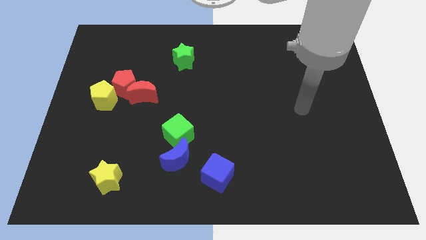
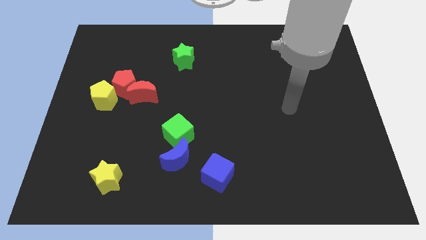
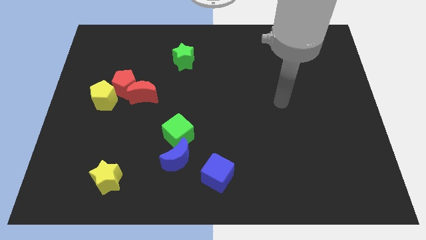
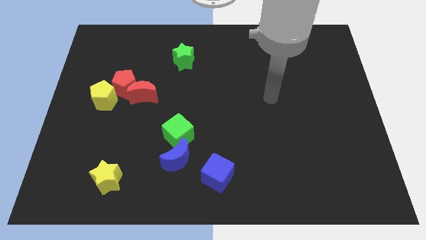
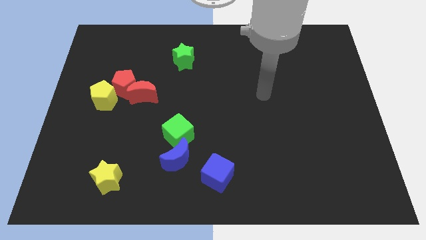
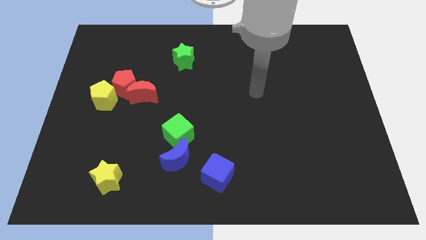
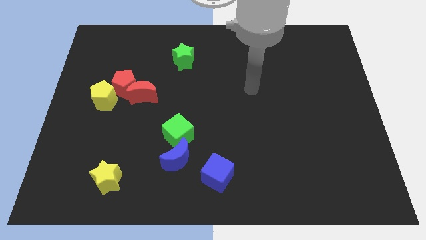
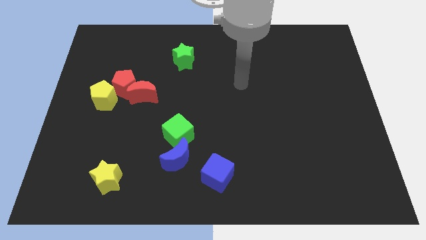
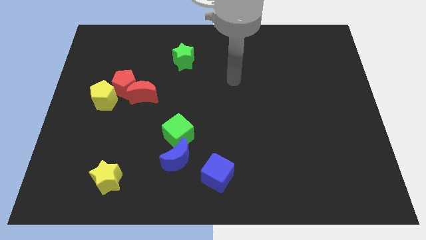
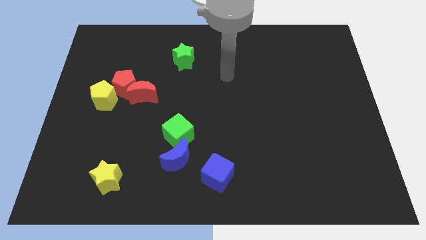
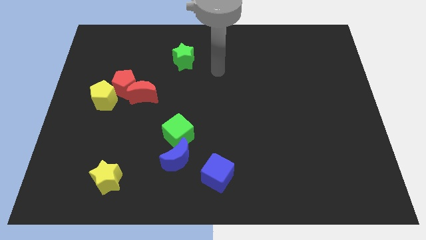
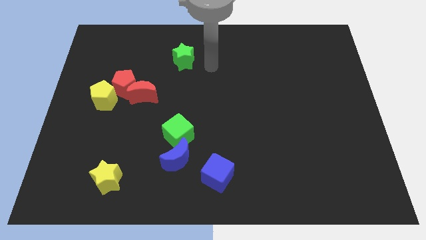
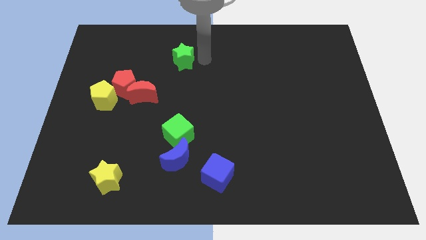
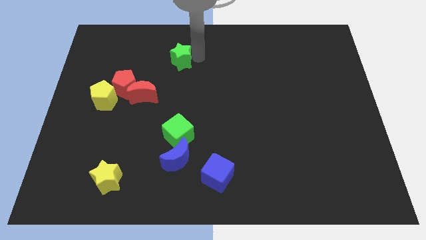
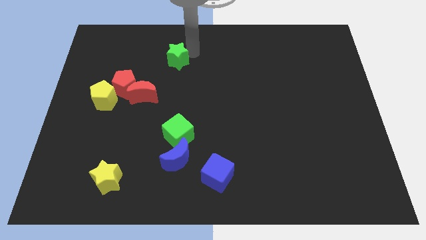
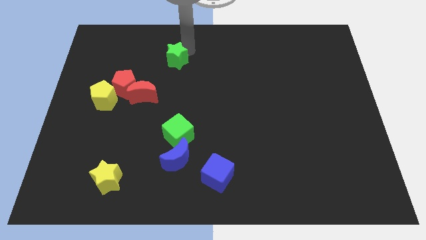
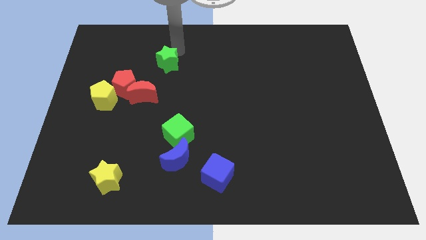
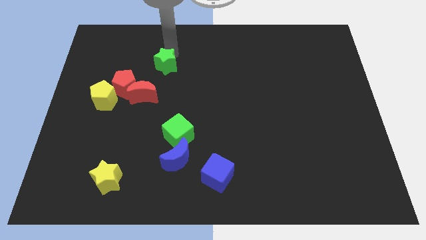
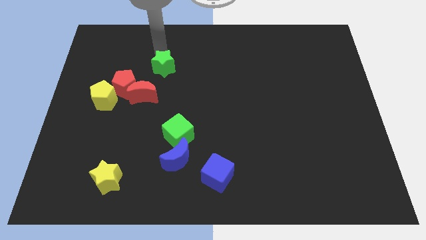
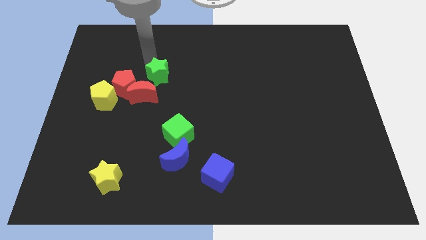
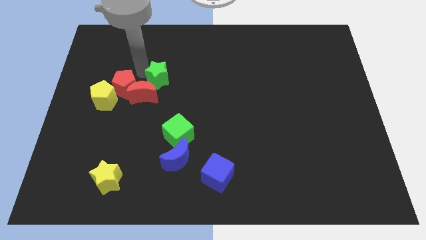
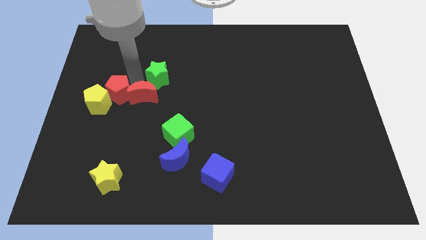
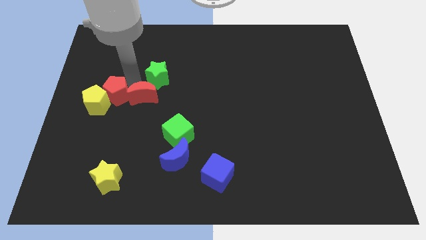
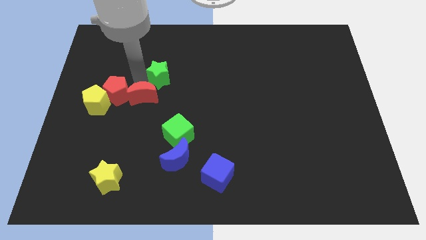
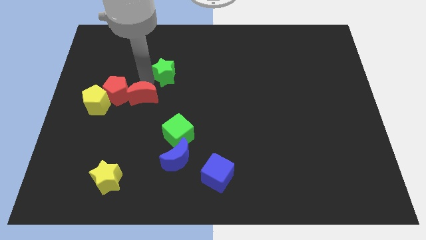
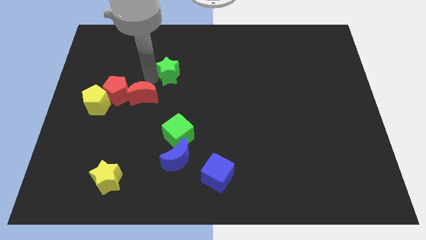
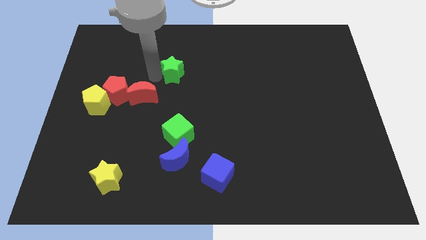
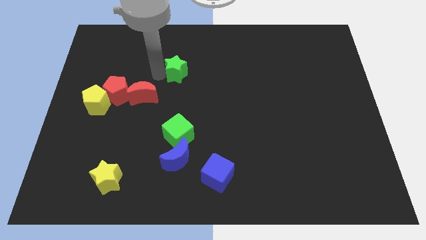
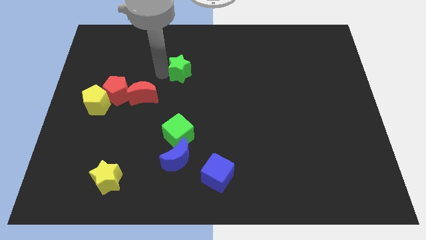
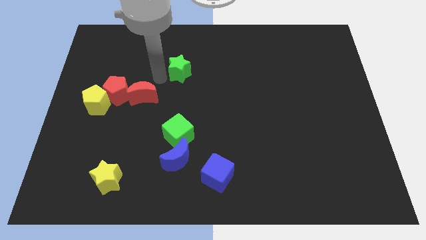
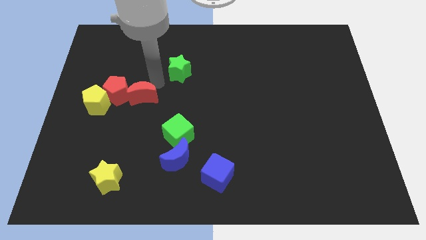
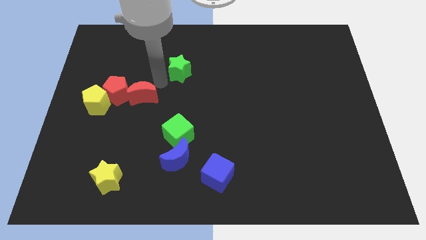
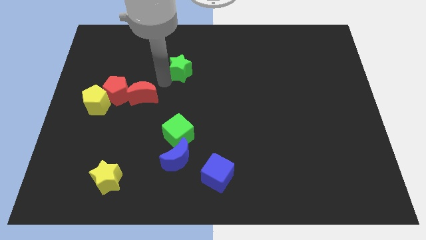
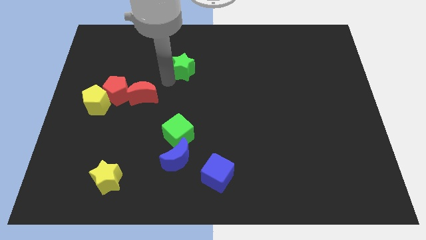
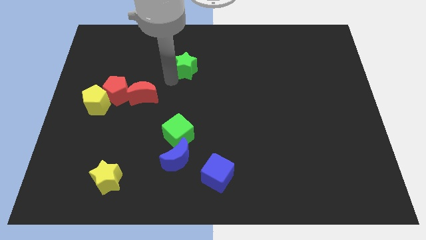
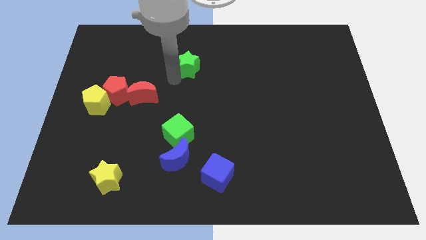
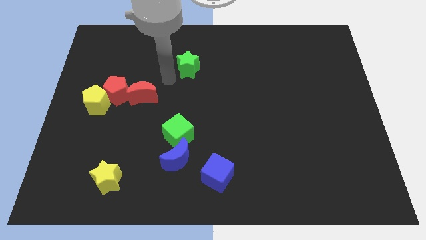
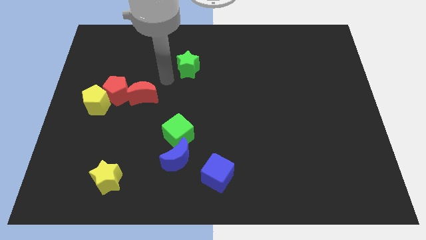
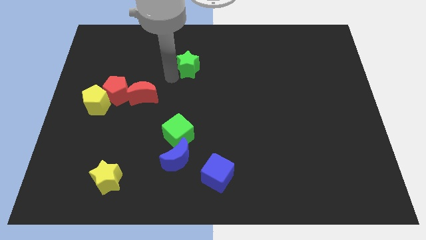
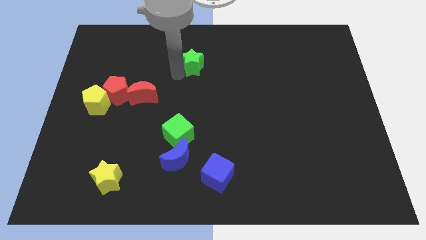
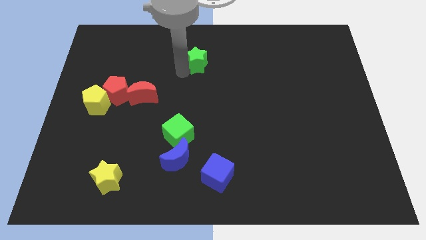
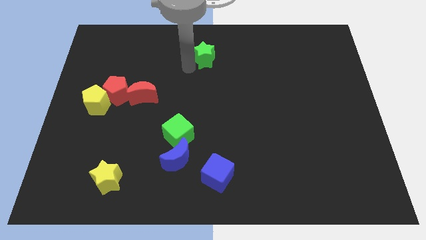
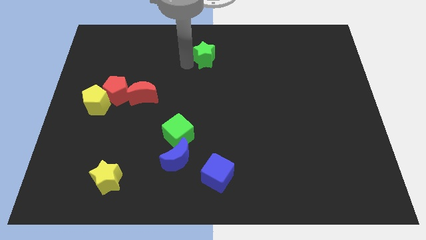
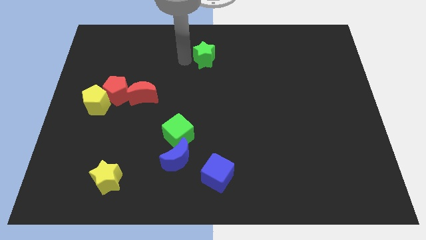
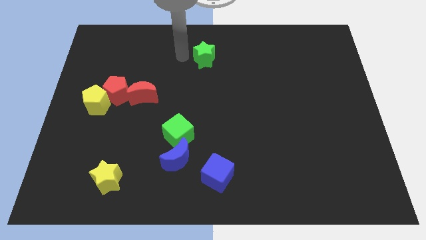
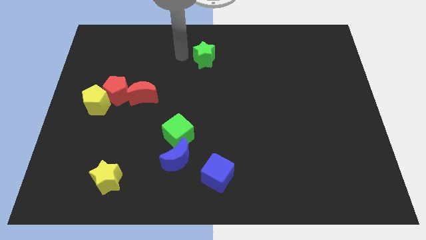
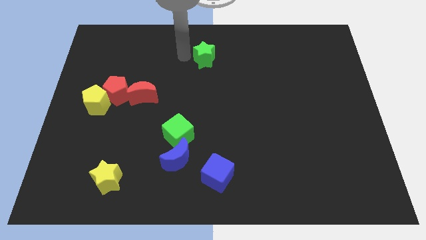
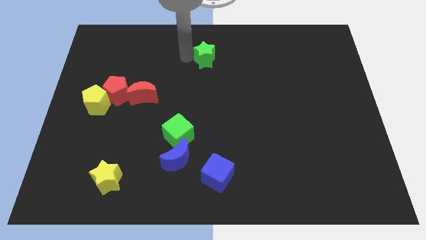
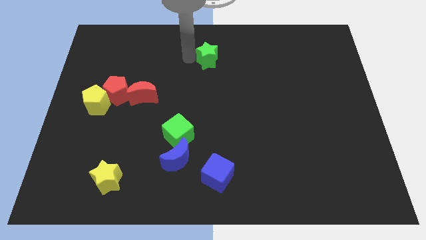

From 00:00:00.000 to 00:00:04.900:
slightly slide the green star to the right

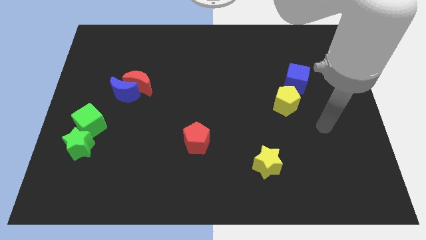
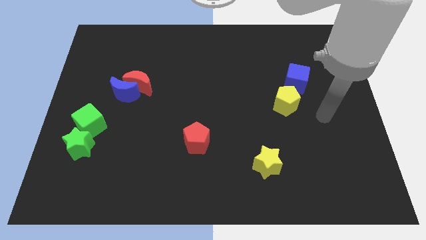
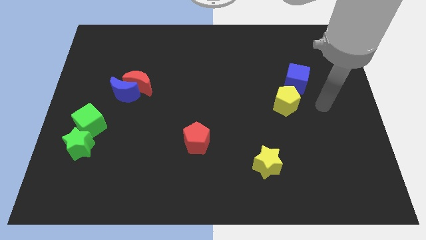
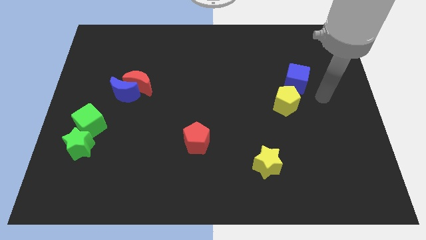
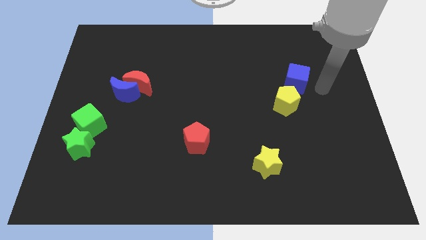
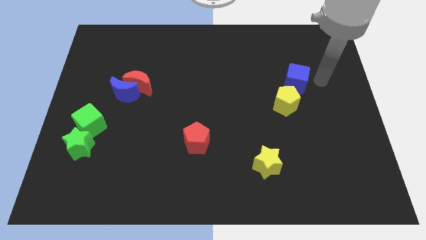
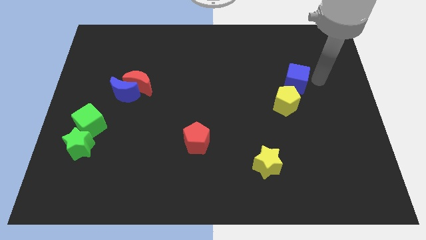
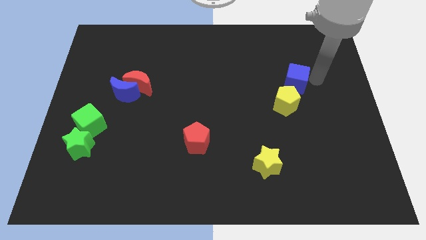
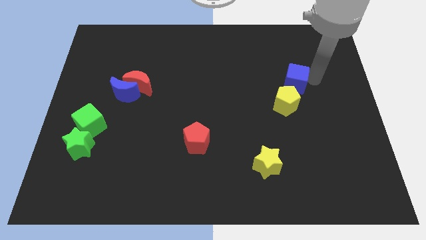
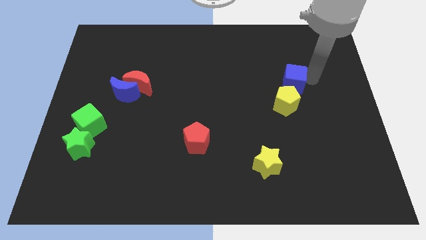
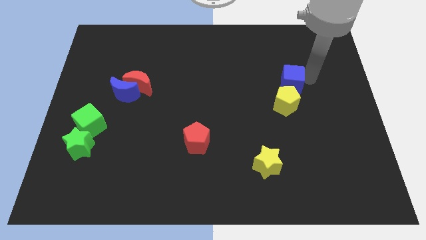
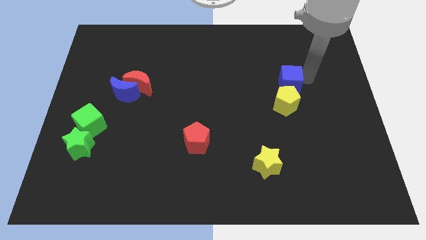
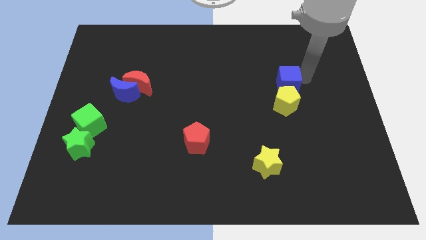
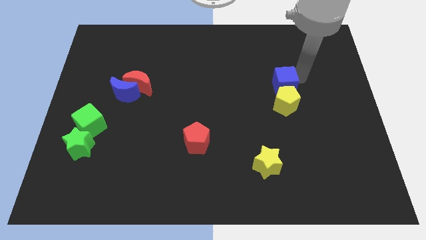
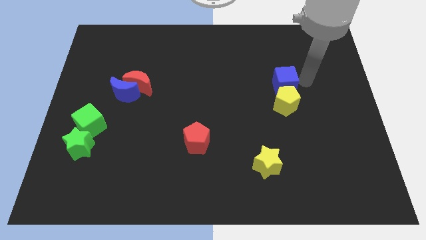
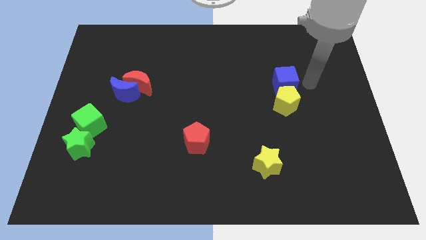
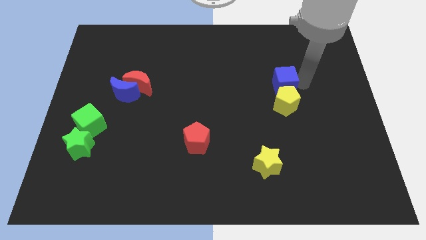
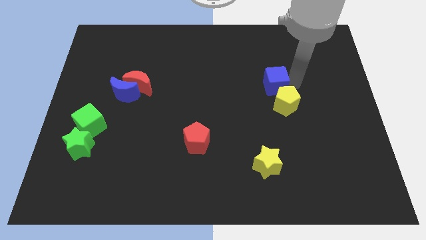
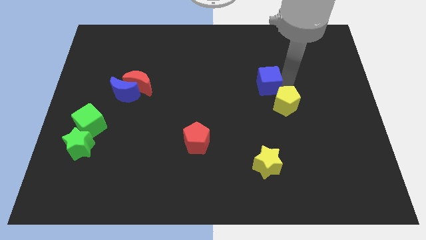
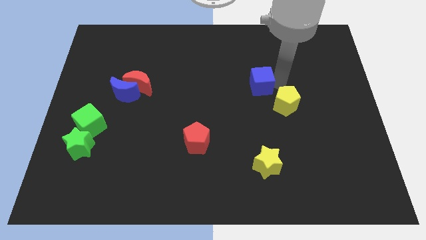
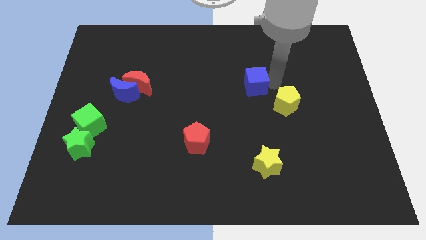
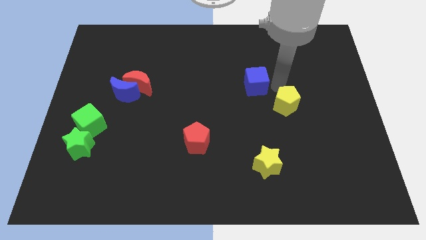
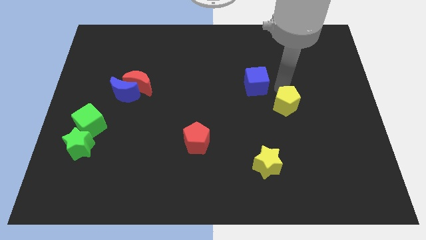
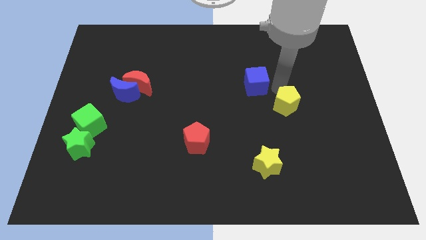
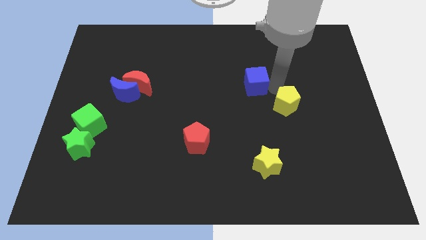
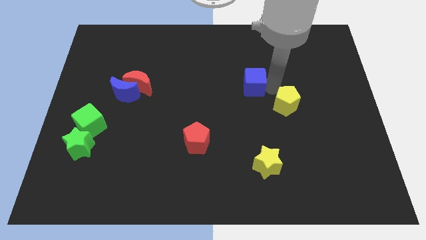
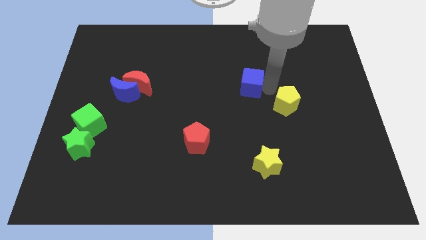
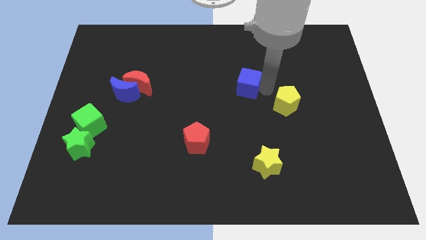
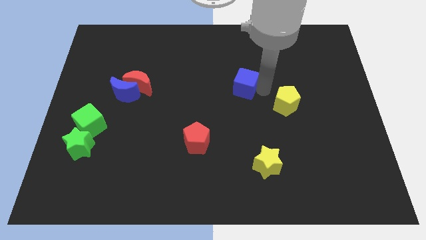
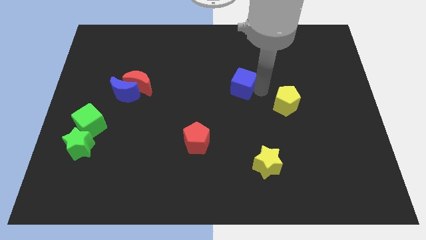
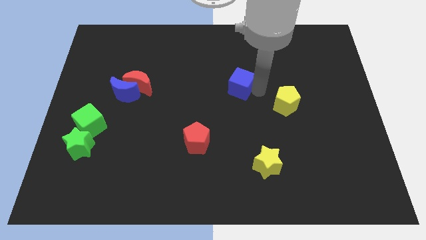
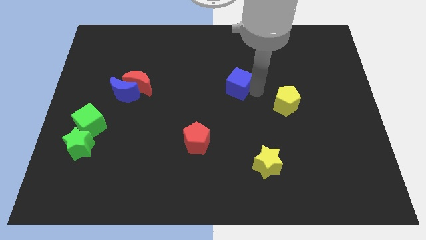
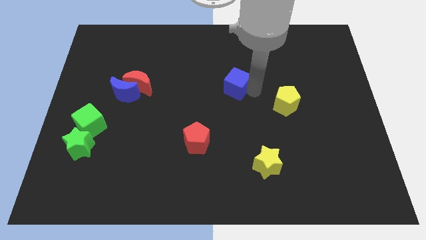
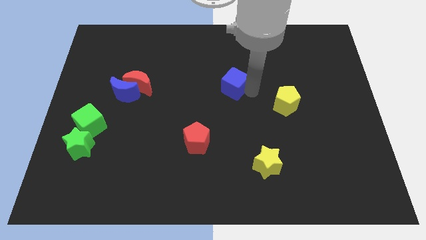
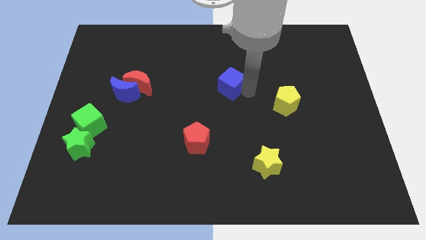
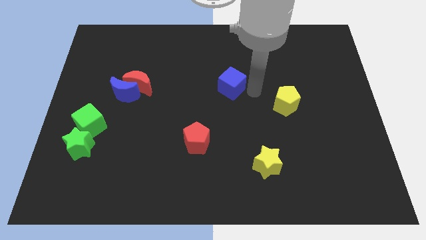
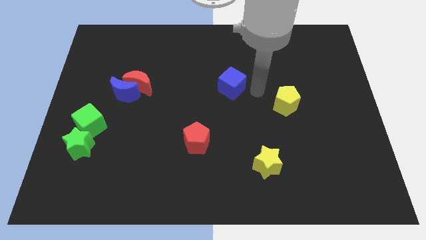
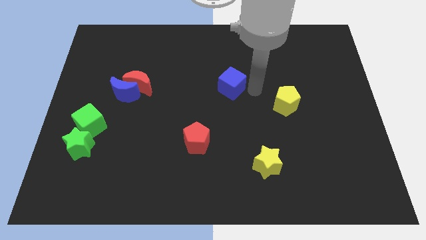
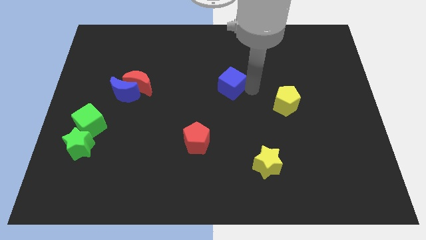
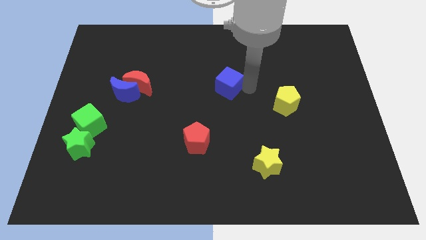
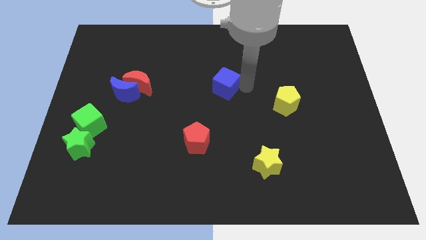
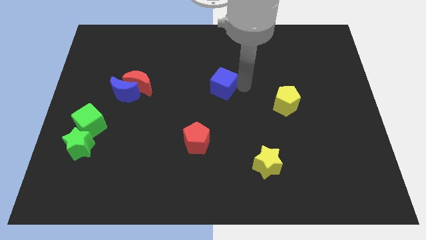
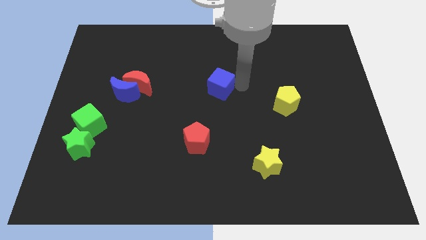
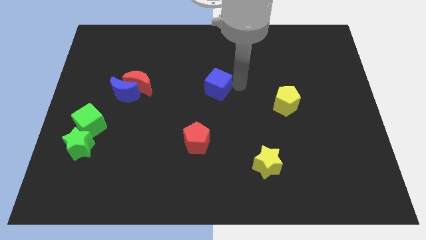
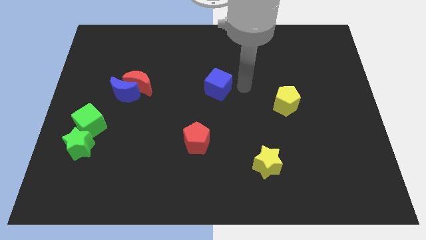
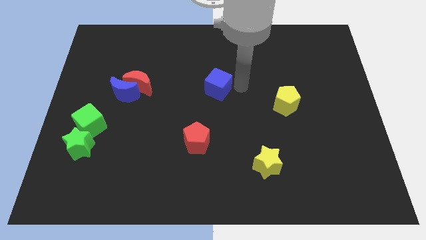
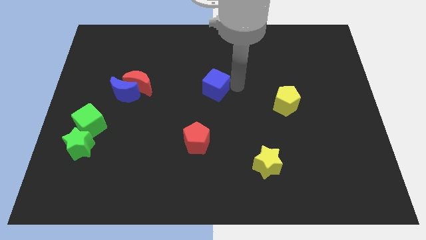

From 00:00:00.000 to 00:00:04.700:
move the blue cube to the left
